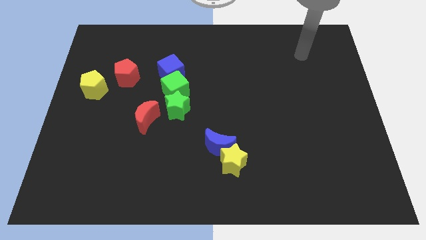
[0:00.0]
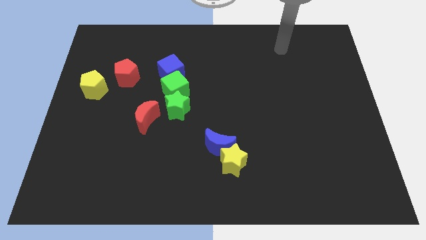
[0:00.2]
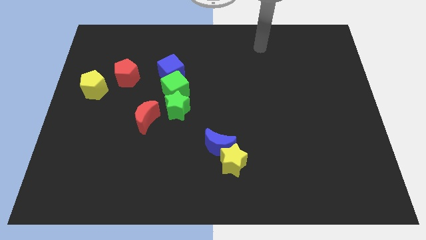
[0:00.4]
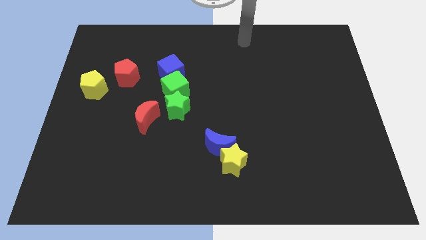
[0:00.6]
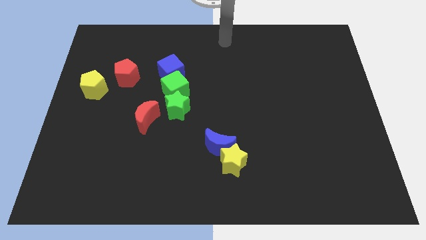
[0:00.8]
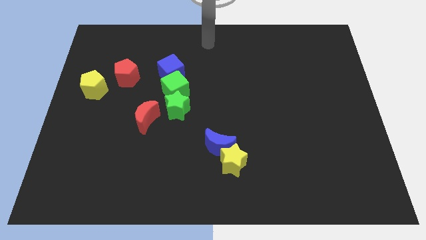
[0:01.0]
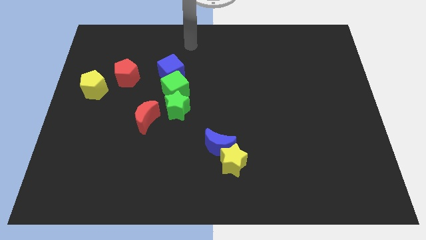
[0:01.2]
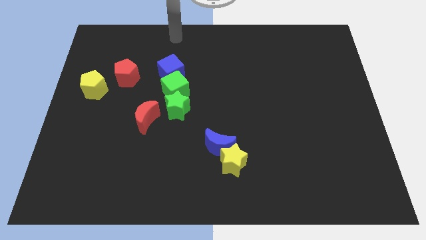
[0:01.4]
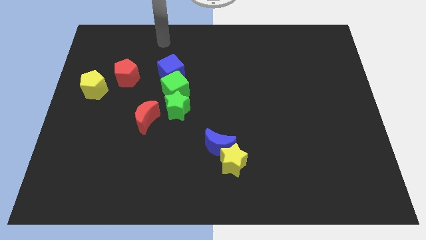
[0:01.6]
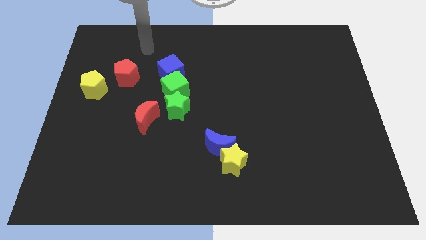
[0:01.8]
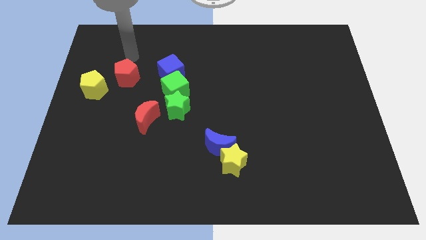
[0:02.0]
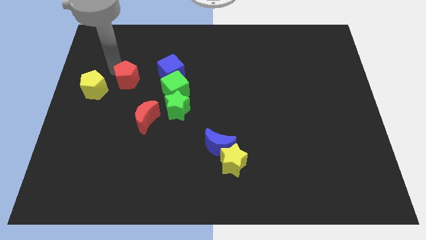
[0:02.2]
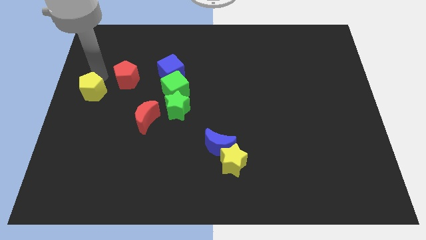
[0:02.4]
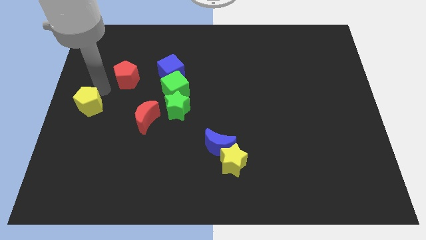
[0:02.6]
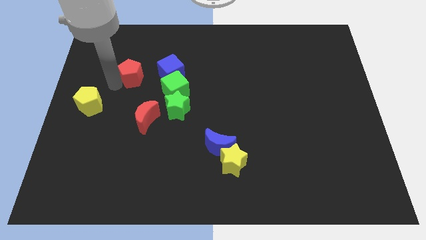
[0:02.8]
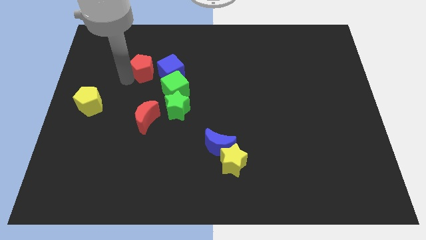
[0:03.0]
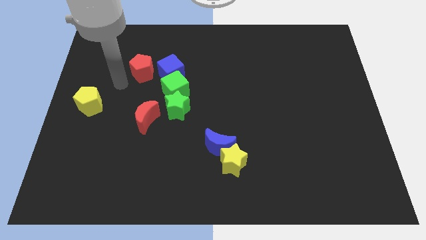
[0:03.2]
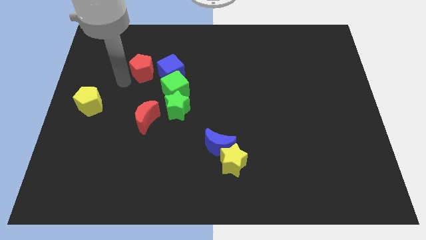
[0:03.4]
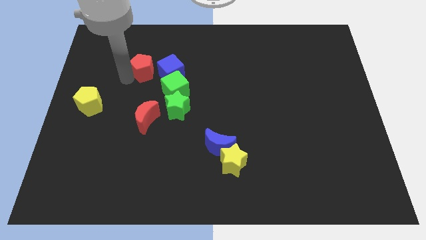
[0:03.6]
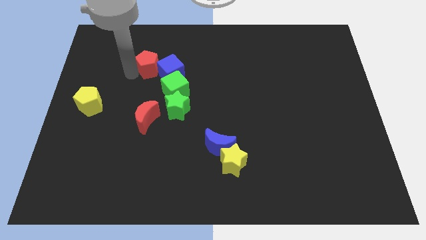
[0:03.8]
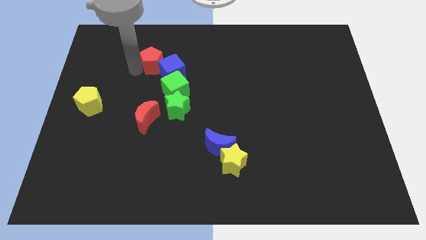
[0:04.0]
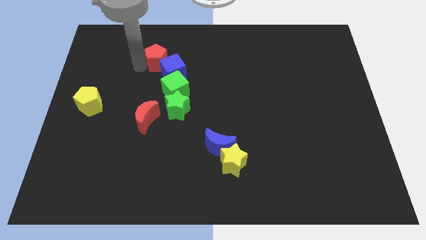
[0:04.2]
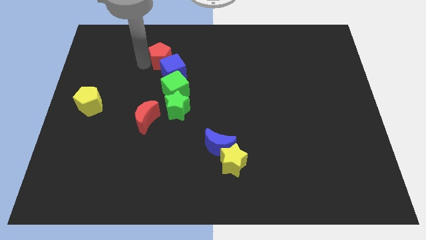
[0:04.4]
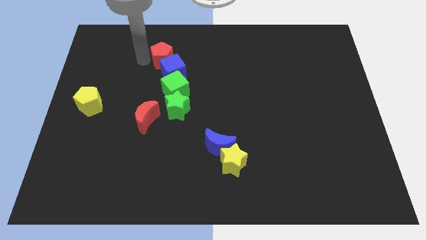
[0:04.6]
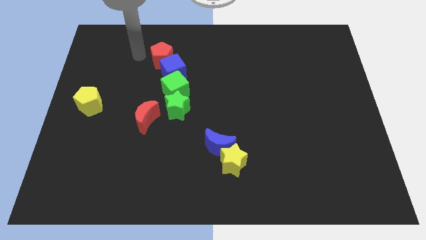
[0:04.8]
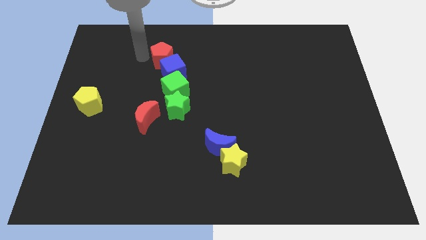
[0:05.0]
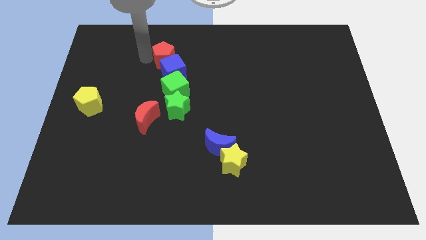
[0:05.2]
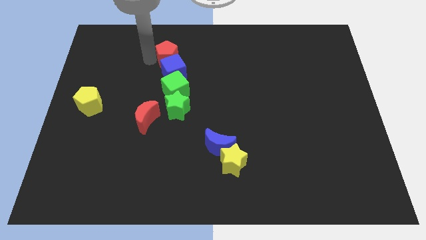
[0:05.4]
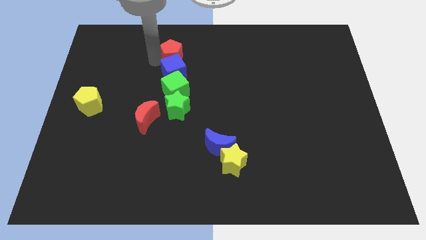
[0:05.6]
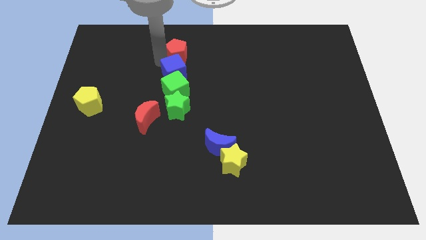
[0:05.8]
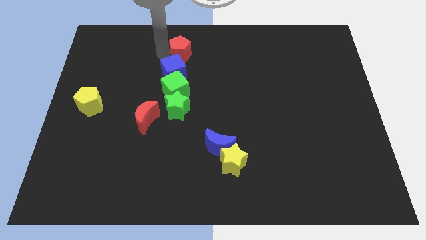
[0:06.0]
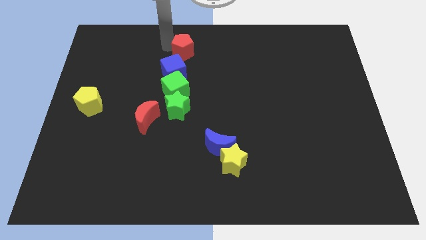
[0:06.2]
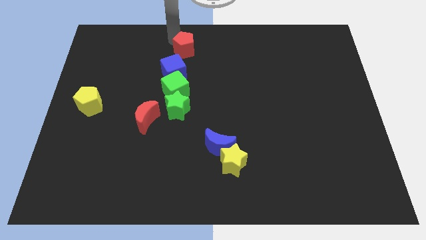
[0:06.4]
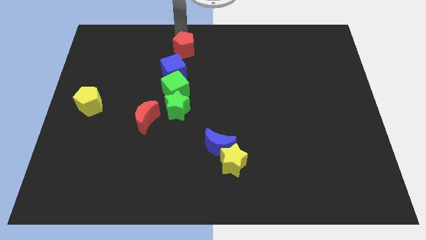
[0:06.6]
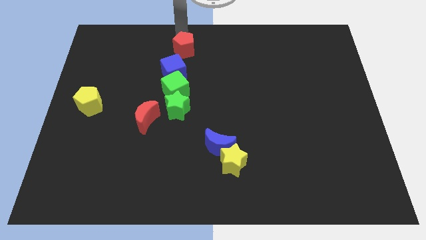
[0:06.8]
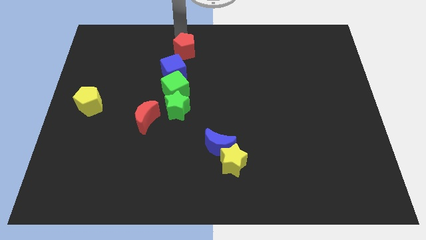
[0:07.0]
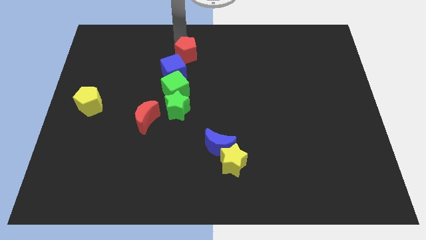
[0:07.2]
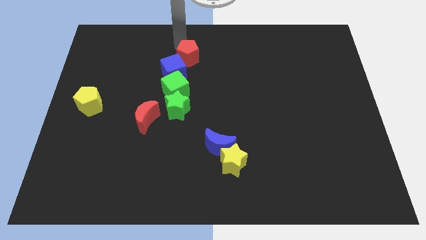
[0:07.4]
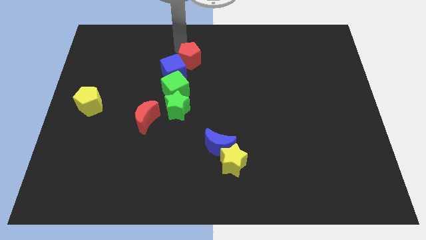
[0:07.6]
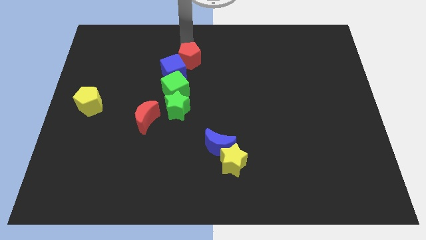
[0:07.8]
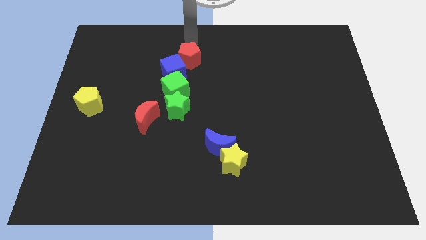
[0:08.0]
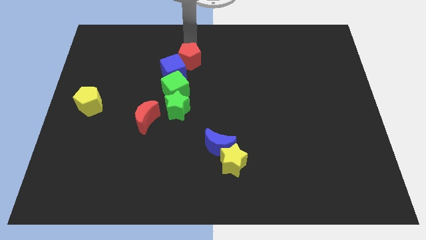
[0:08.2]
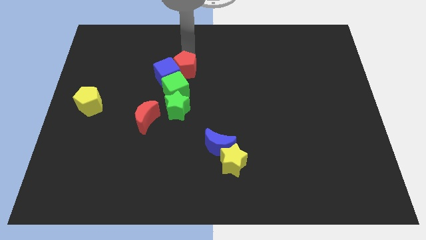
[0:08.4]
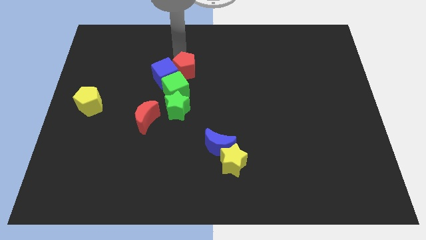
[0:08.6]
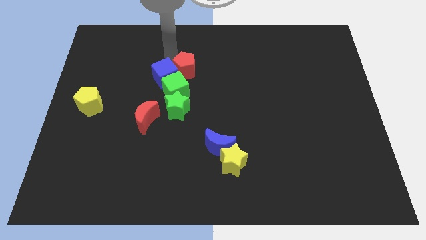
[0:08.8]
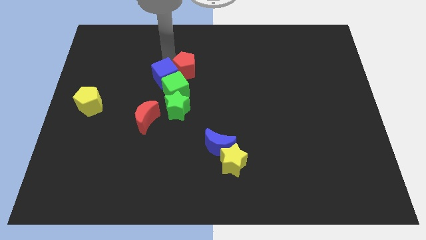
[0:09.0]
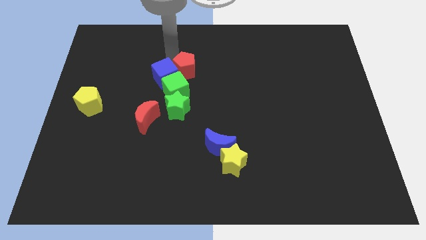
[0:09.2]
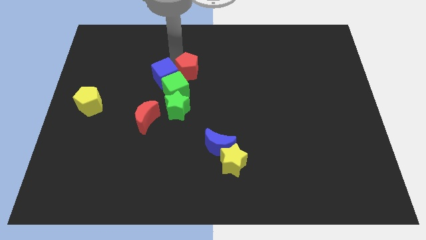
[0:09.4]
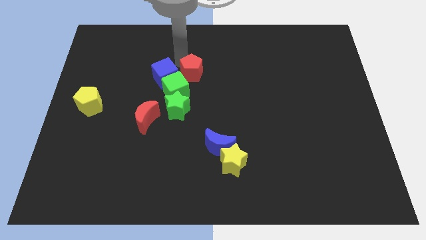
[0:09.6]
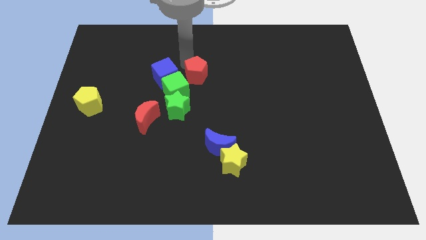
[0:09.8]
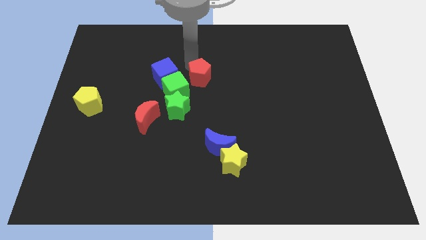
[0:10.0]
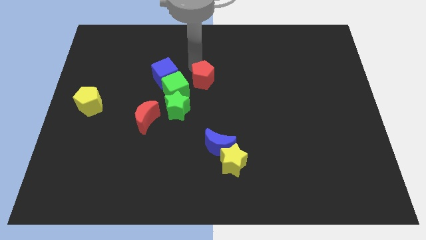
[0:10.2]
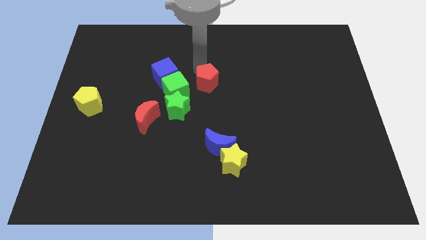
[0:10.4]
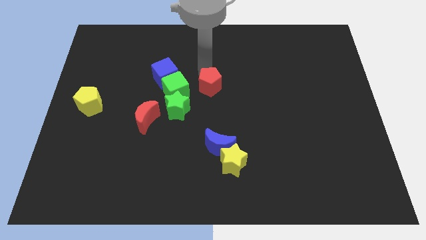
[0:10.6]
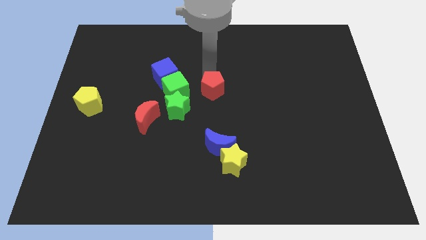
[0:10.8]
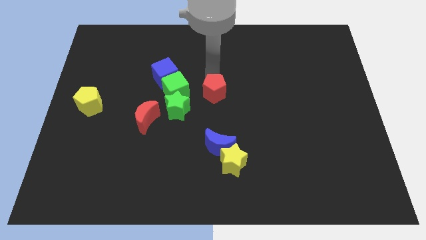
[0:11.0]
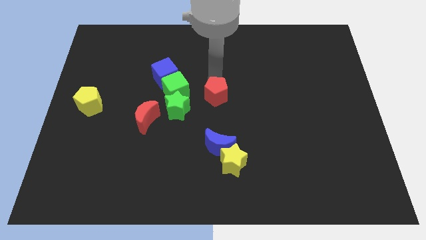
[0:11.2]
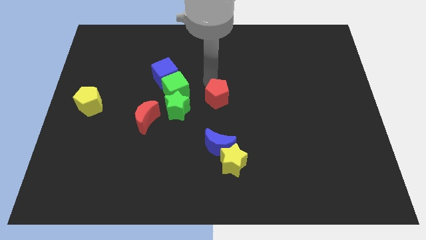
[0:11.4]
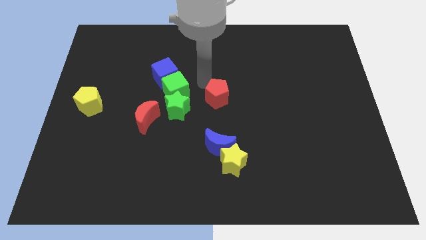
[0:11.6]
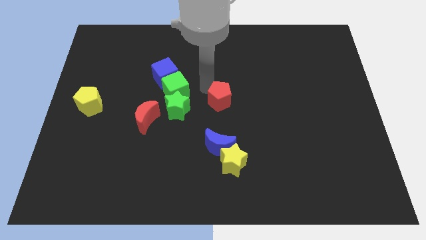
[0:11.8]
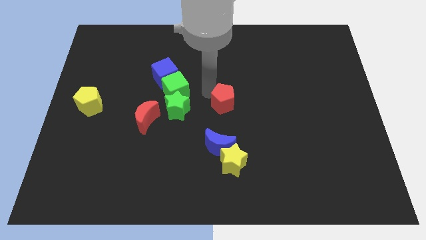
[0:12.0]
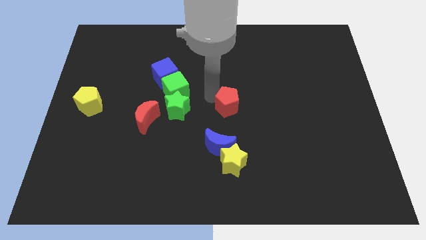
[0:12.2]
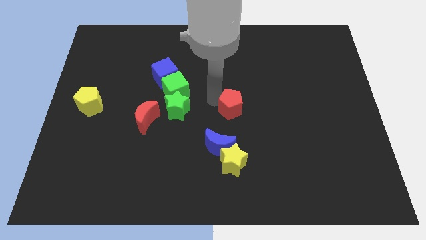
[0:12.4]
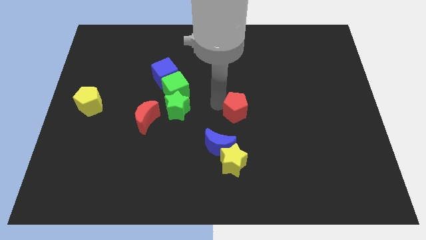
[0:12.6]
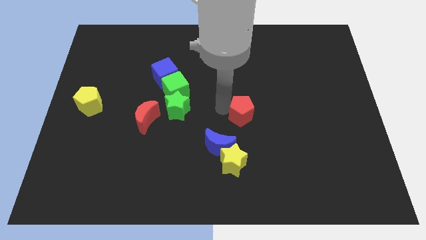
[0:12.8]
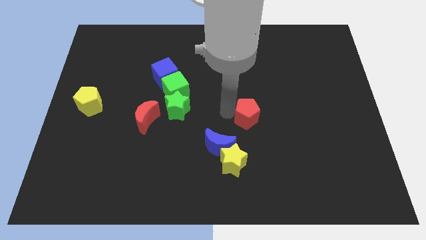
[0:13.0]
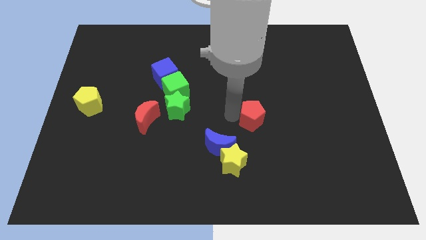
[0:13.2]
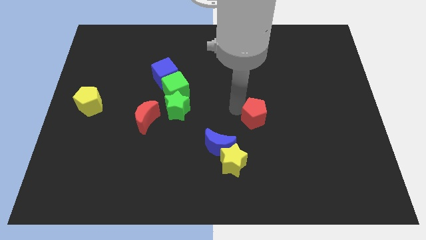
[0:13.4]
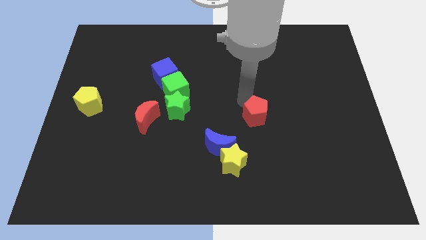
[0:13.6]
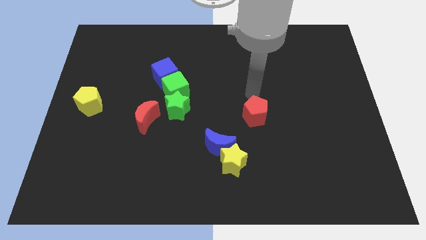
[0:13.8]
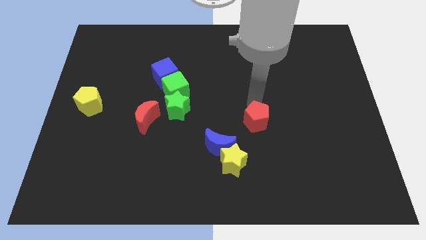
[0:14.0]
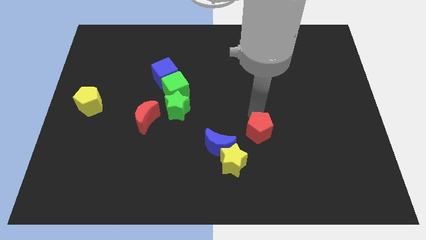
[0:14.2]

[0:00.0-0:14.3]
slide the red pentagon right of the blue moon

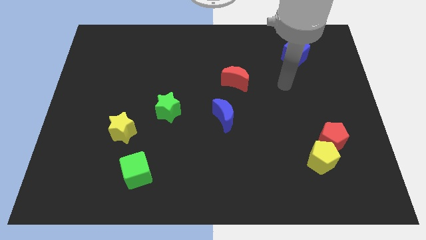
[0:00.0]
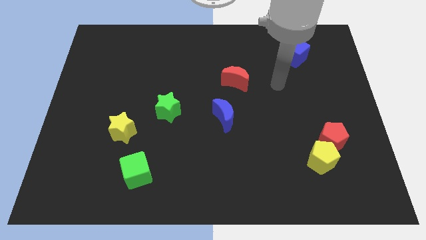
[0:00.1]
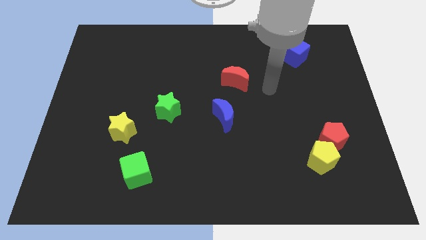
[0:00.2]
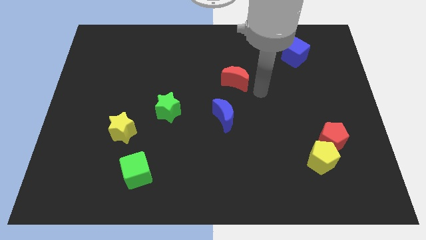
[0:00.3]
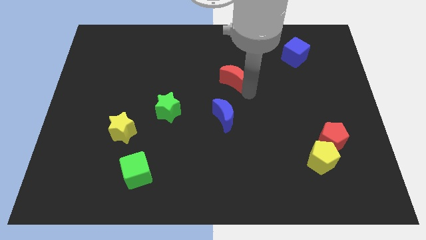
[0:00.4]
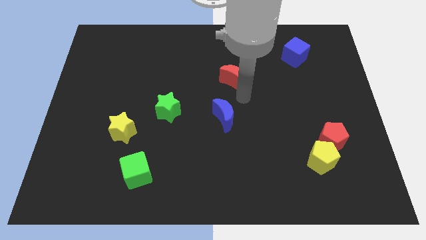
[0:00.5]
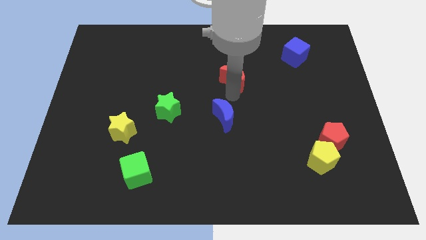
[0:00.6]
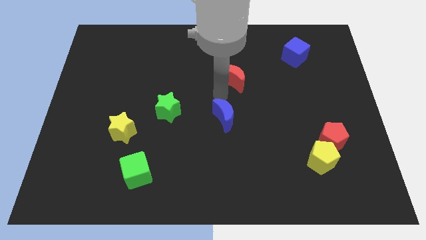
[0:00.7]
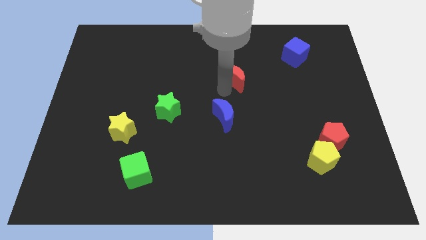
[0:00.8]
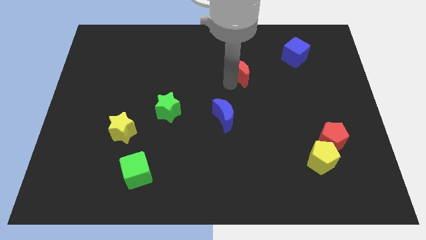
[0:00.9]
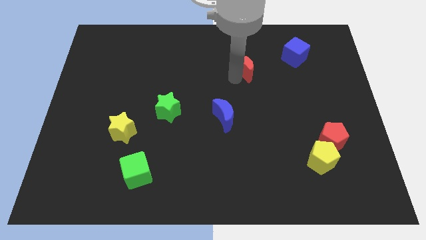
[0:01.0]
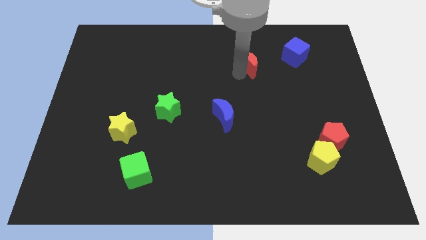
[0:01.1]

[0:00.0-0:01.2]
move the red moon just left of the blue cube
